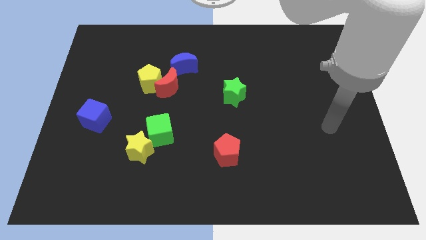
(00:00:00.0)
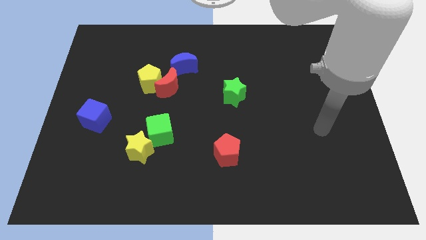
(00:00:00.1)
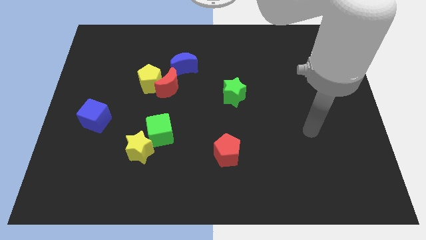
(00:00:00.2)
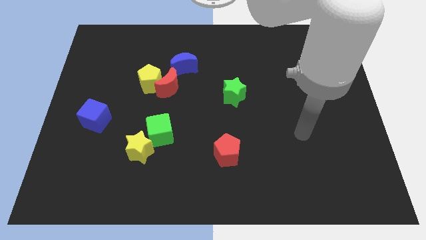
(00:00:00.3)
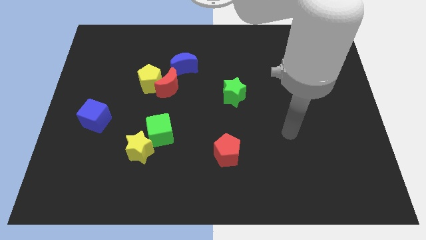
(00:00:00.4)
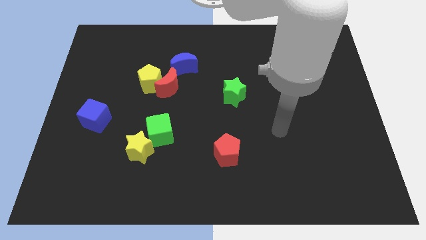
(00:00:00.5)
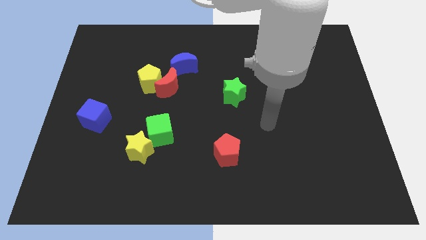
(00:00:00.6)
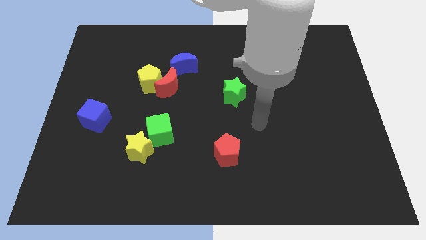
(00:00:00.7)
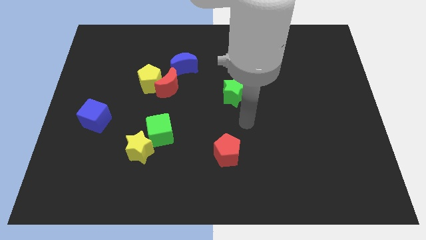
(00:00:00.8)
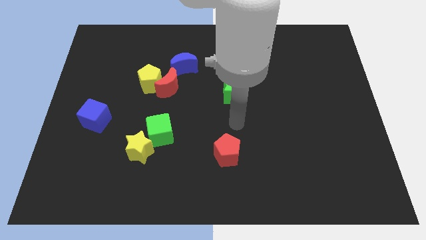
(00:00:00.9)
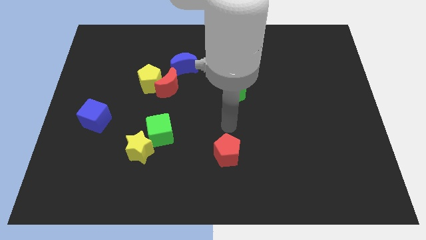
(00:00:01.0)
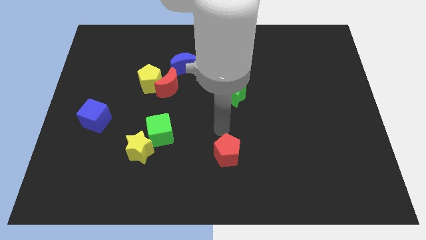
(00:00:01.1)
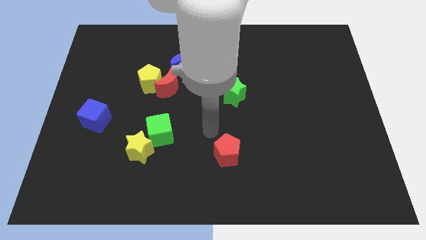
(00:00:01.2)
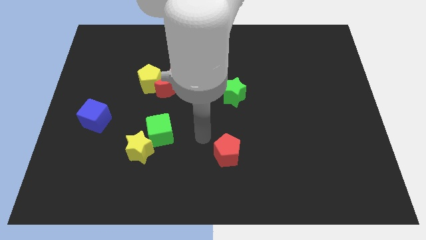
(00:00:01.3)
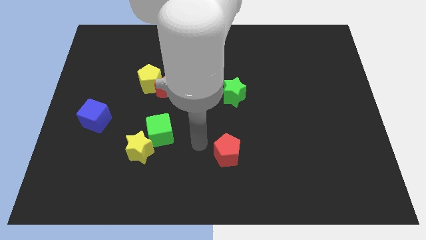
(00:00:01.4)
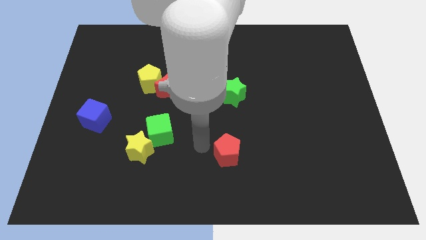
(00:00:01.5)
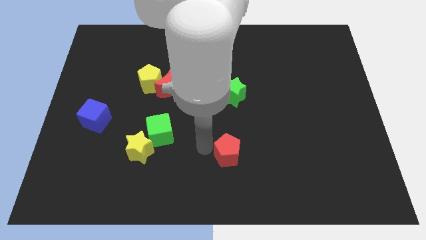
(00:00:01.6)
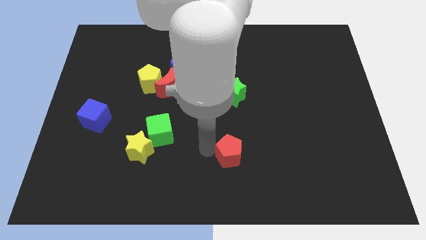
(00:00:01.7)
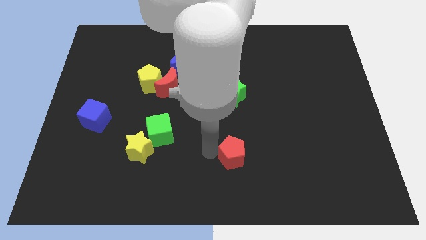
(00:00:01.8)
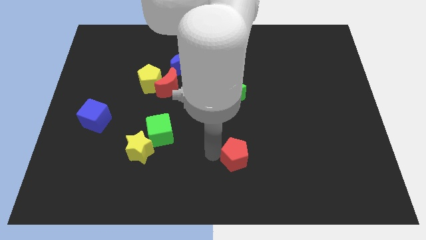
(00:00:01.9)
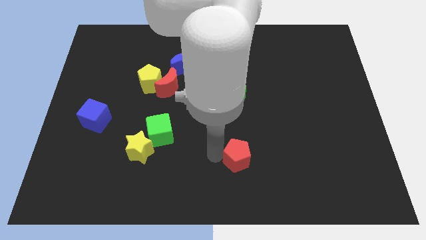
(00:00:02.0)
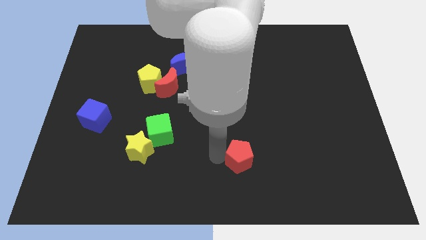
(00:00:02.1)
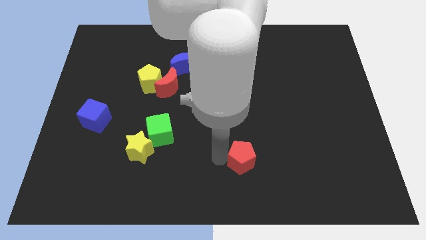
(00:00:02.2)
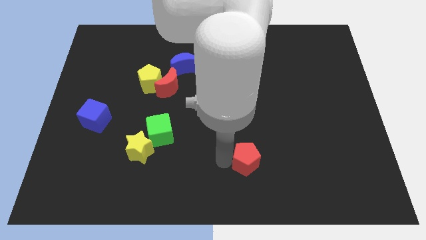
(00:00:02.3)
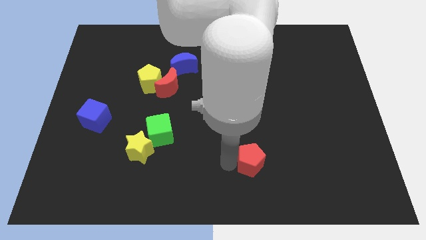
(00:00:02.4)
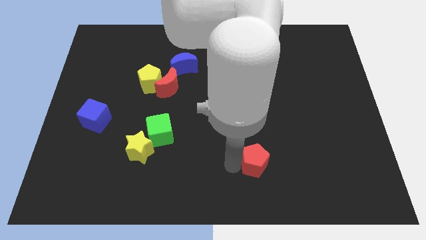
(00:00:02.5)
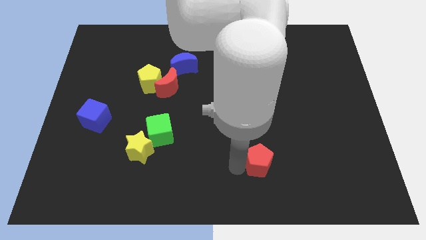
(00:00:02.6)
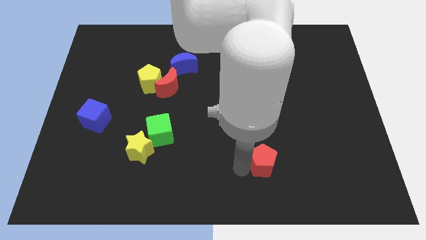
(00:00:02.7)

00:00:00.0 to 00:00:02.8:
slightly move the red pentagon to the right

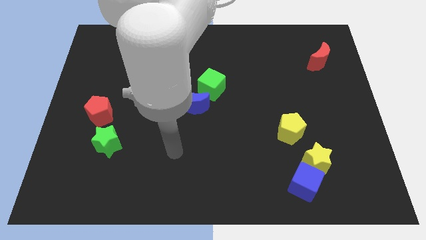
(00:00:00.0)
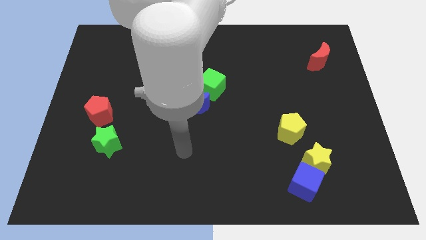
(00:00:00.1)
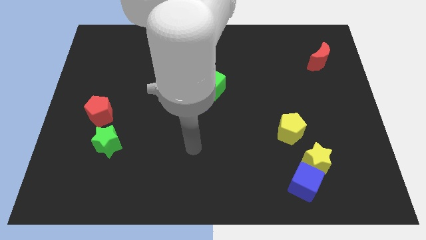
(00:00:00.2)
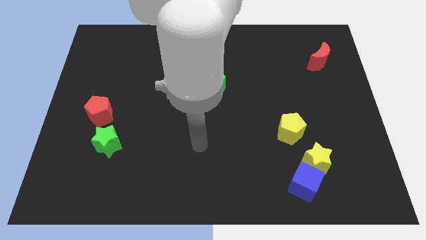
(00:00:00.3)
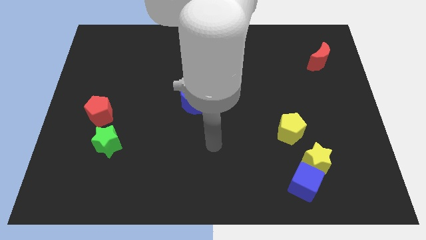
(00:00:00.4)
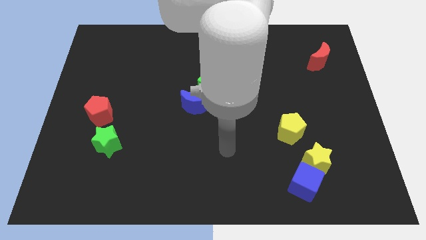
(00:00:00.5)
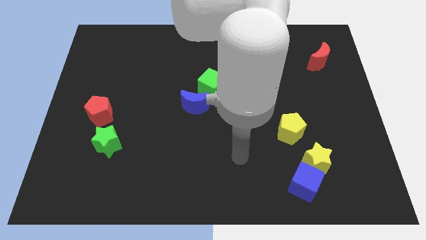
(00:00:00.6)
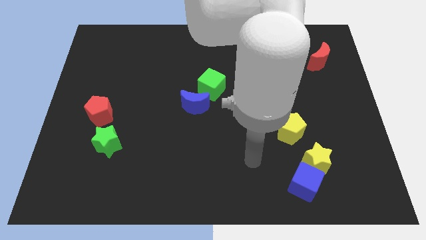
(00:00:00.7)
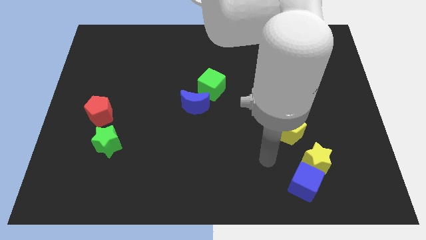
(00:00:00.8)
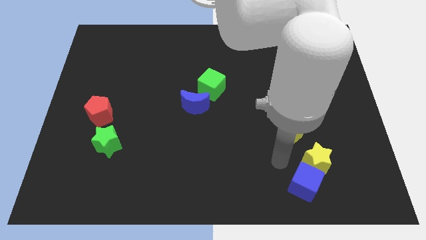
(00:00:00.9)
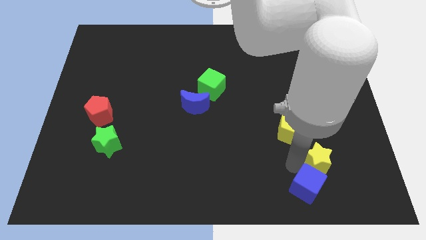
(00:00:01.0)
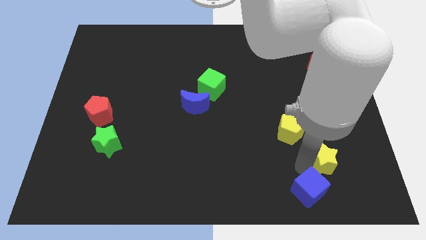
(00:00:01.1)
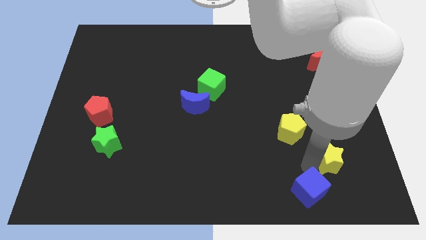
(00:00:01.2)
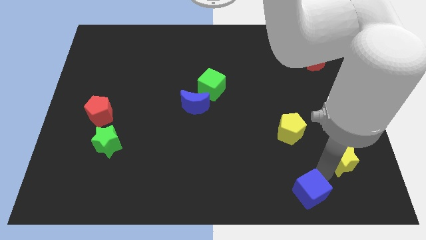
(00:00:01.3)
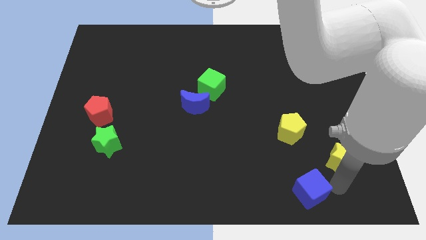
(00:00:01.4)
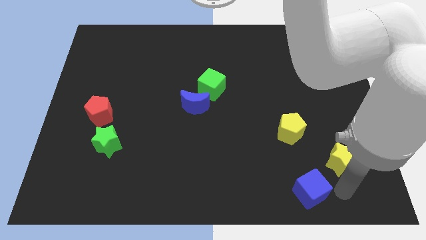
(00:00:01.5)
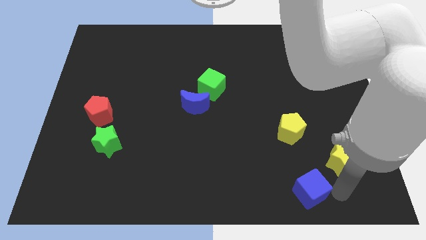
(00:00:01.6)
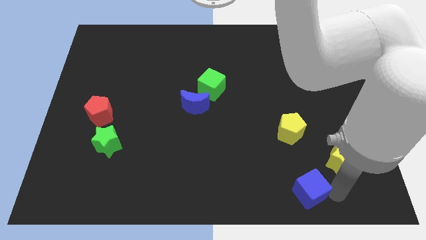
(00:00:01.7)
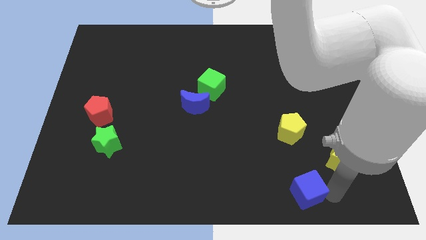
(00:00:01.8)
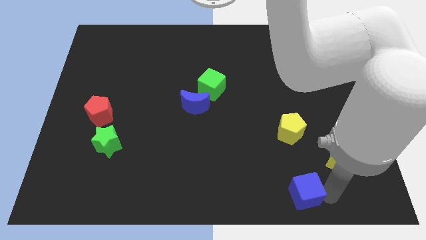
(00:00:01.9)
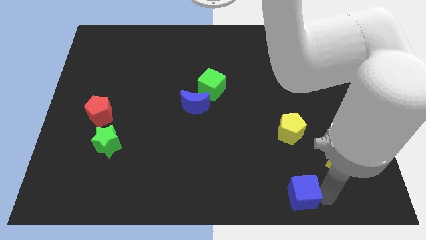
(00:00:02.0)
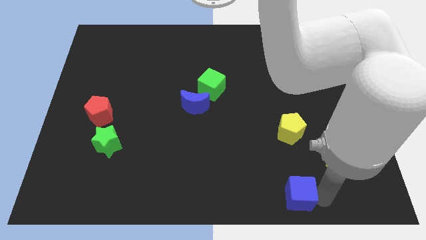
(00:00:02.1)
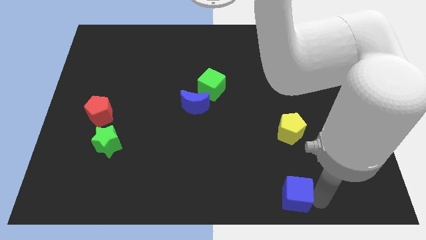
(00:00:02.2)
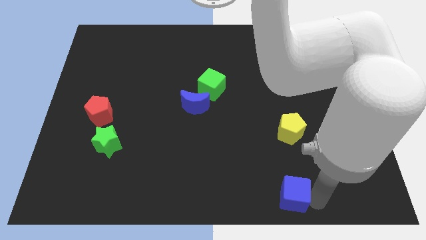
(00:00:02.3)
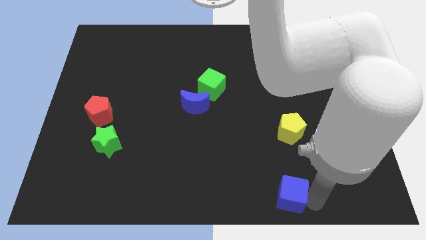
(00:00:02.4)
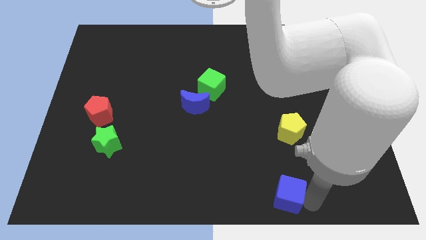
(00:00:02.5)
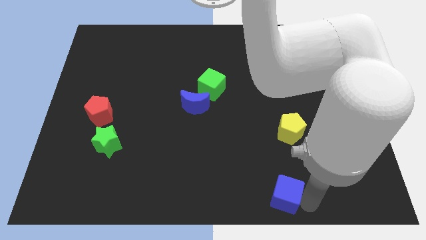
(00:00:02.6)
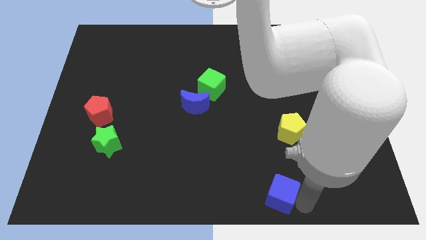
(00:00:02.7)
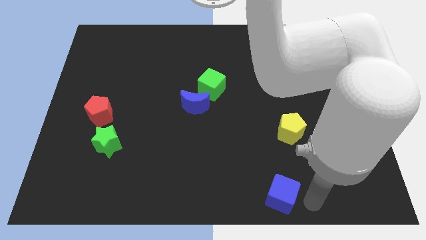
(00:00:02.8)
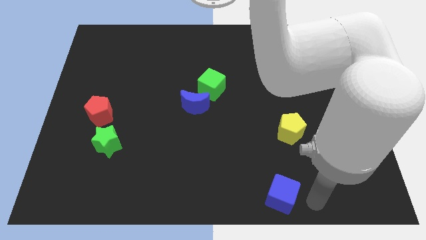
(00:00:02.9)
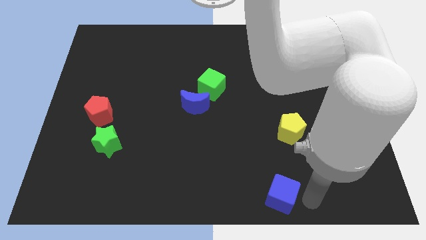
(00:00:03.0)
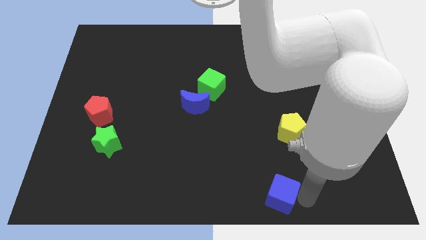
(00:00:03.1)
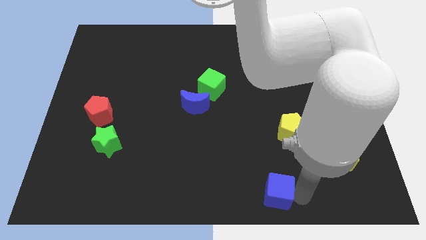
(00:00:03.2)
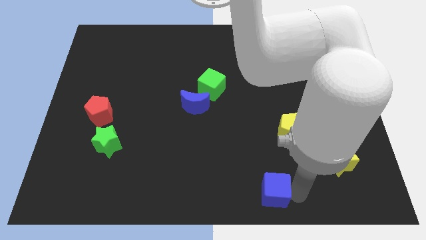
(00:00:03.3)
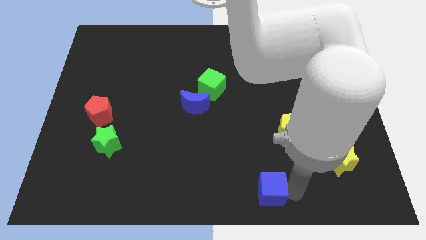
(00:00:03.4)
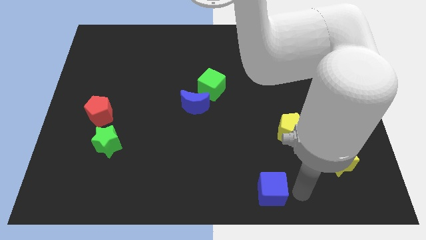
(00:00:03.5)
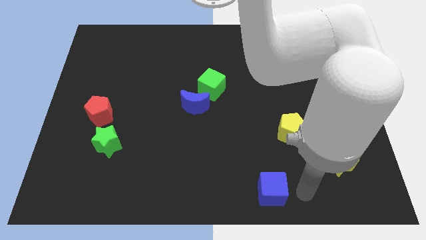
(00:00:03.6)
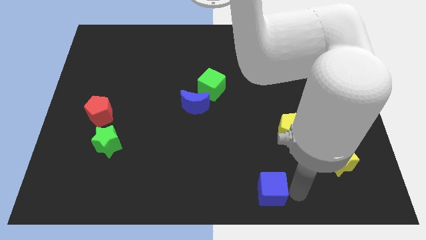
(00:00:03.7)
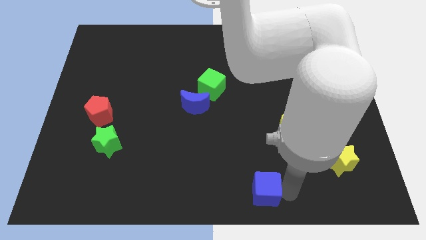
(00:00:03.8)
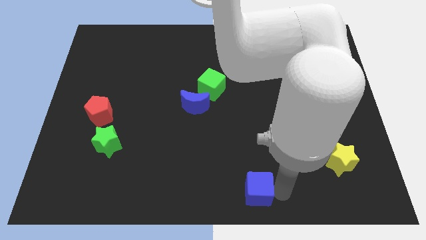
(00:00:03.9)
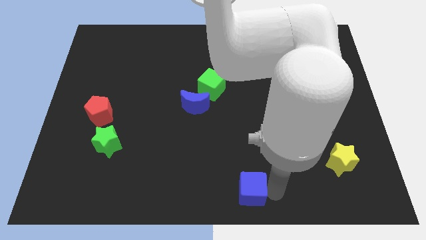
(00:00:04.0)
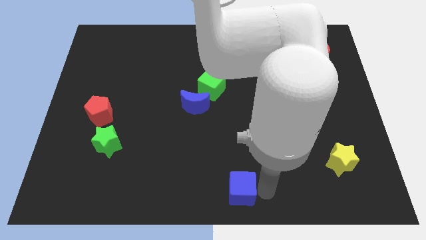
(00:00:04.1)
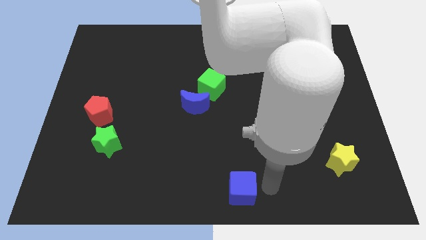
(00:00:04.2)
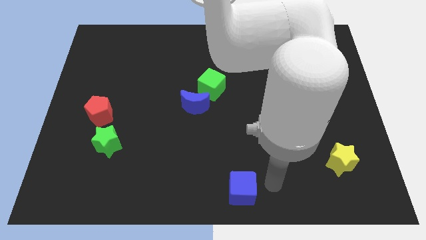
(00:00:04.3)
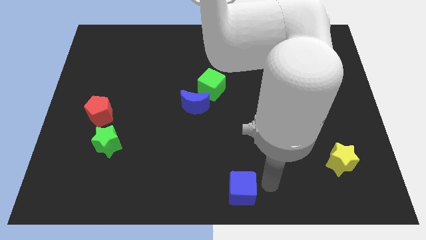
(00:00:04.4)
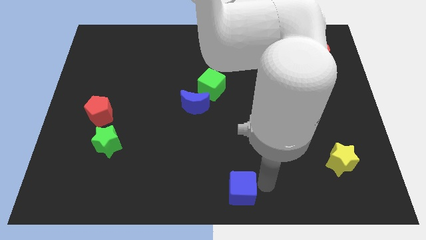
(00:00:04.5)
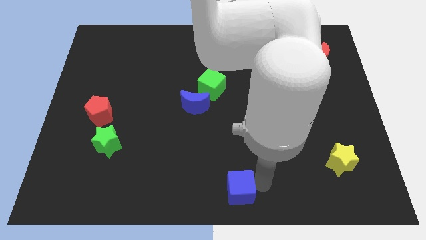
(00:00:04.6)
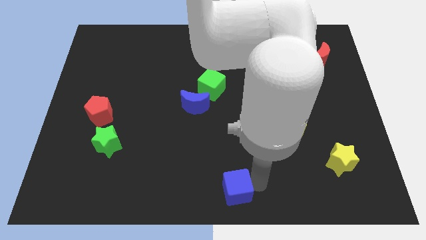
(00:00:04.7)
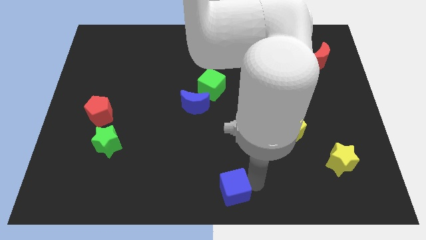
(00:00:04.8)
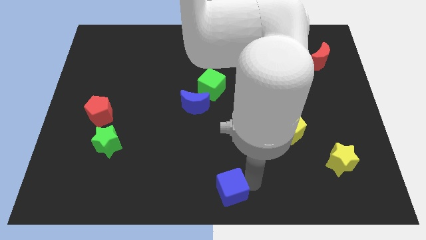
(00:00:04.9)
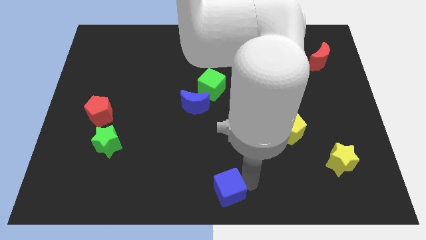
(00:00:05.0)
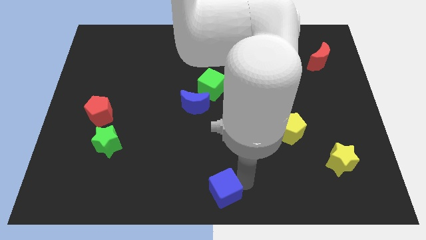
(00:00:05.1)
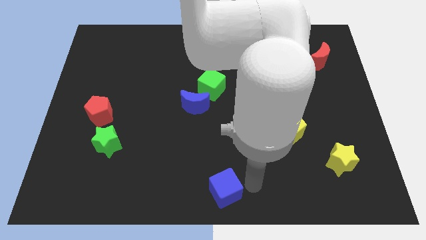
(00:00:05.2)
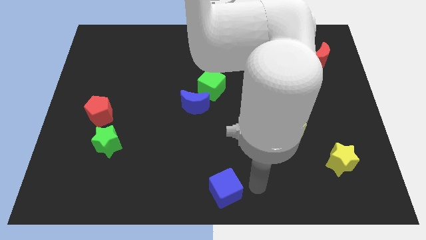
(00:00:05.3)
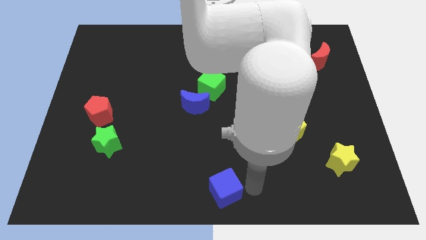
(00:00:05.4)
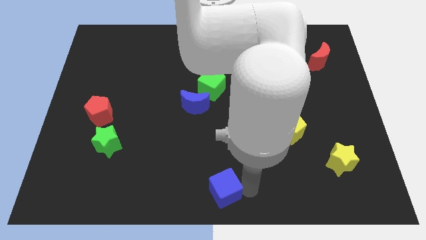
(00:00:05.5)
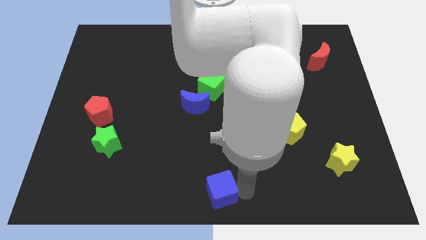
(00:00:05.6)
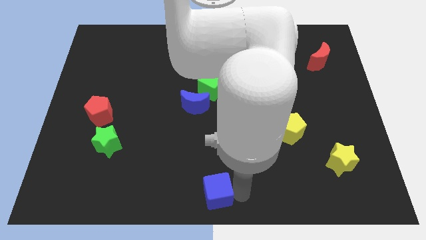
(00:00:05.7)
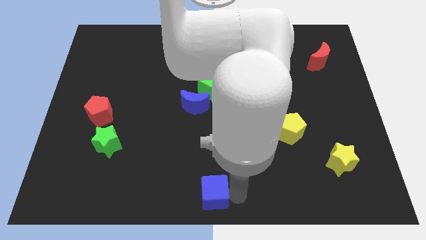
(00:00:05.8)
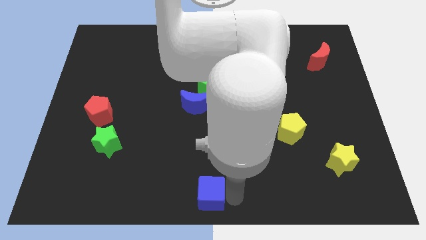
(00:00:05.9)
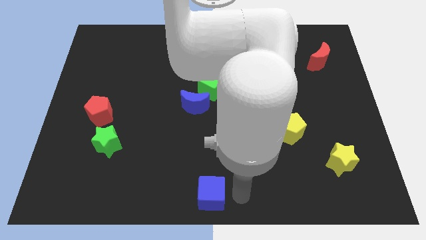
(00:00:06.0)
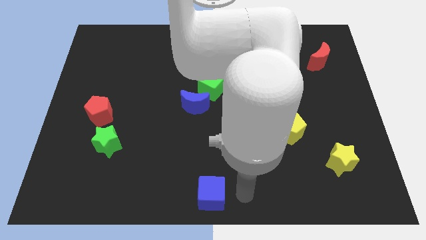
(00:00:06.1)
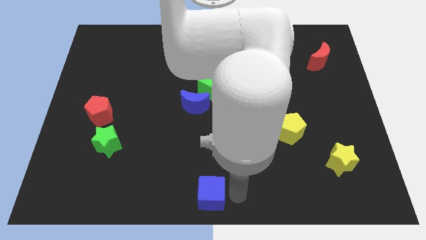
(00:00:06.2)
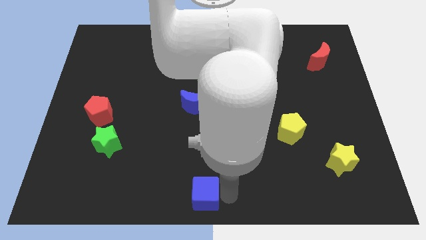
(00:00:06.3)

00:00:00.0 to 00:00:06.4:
slide the blue cube left
